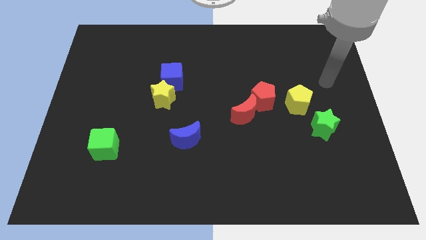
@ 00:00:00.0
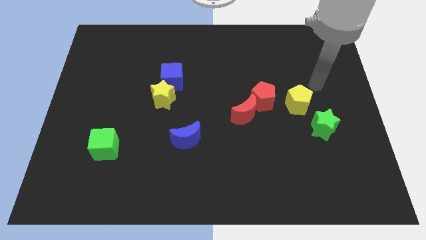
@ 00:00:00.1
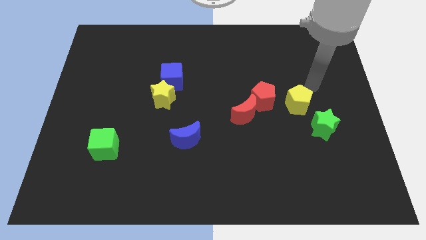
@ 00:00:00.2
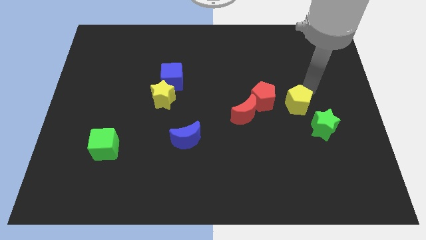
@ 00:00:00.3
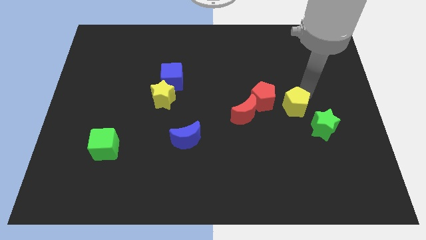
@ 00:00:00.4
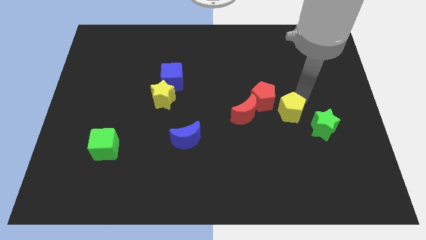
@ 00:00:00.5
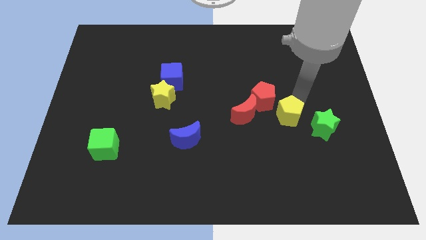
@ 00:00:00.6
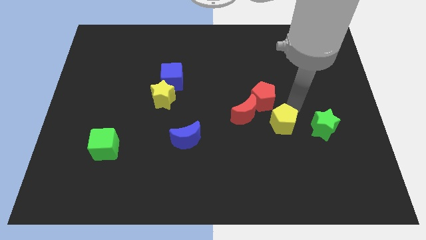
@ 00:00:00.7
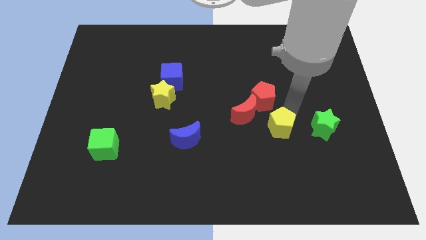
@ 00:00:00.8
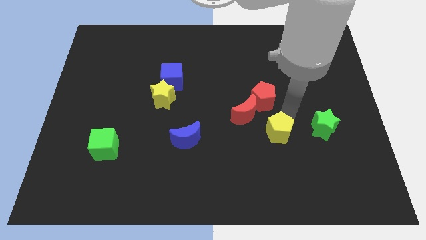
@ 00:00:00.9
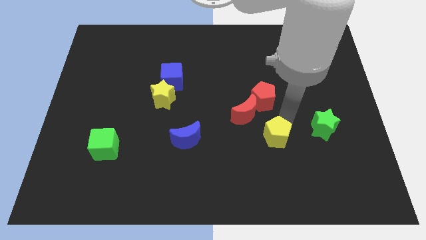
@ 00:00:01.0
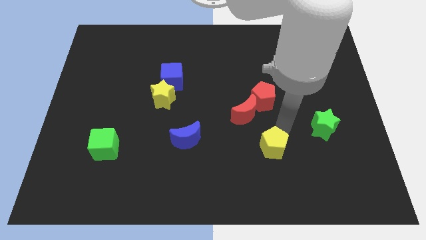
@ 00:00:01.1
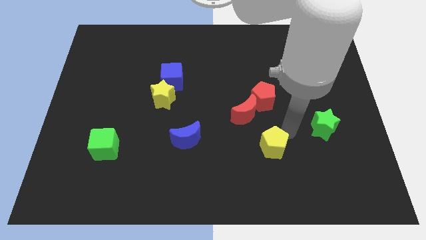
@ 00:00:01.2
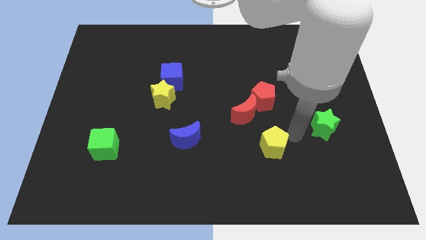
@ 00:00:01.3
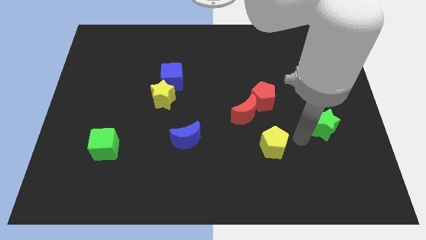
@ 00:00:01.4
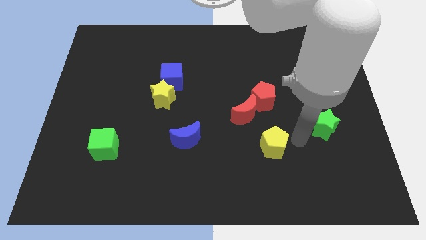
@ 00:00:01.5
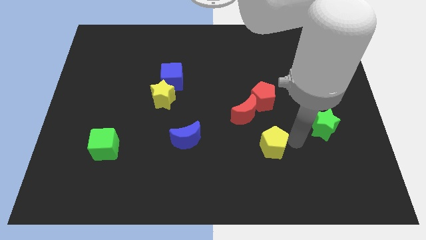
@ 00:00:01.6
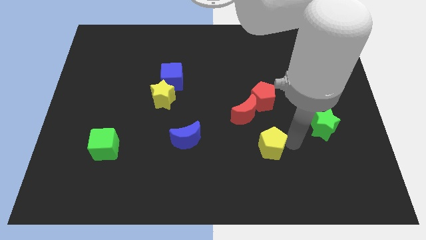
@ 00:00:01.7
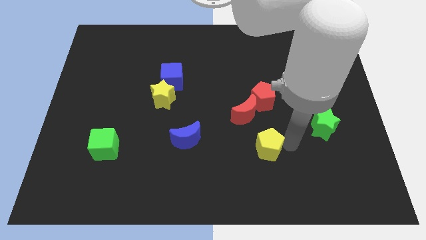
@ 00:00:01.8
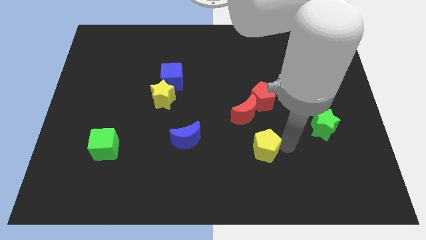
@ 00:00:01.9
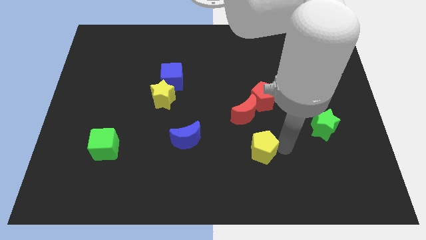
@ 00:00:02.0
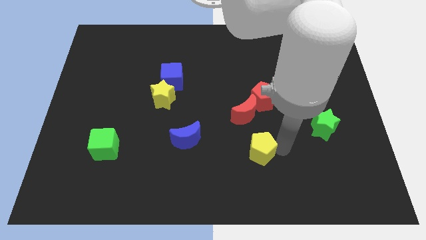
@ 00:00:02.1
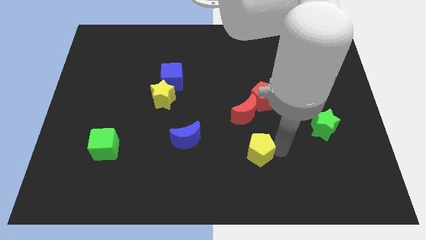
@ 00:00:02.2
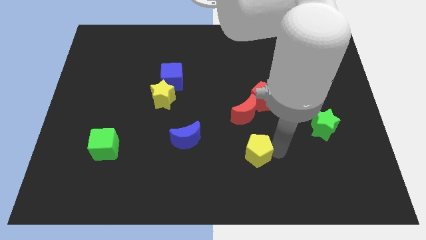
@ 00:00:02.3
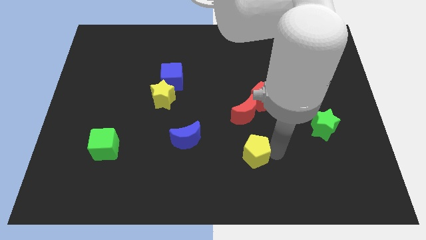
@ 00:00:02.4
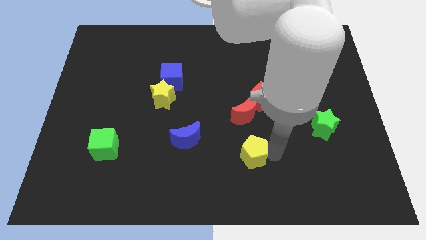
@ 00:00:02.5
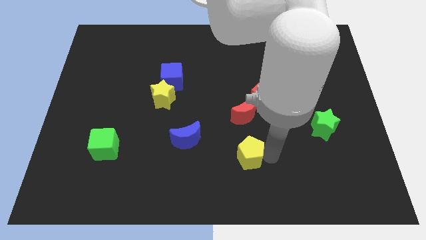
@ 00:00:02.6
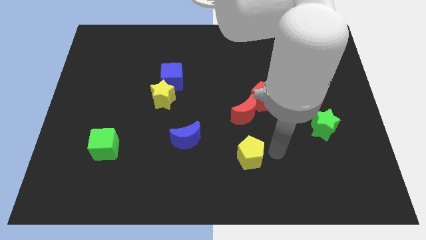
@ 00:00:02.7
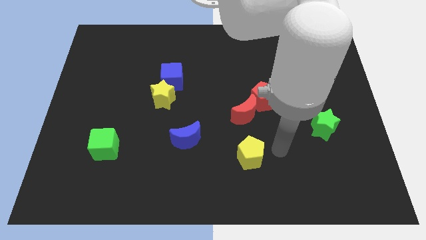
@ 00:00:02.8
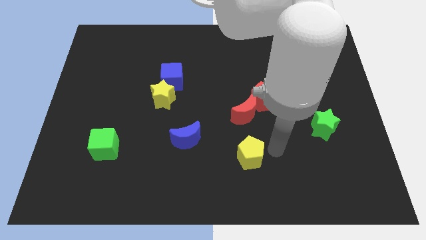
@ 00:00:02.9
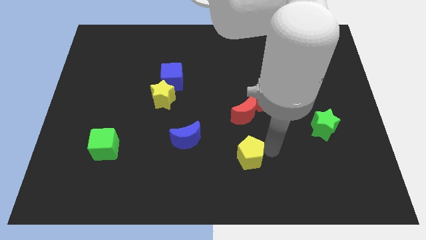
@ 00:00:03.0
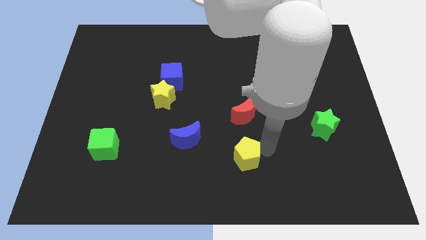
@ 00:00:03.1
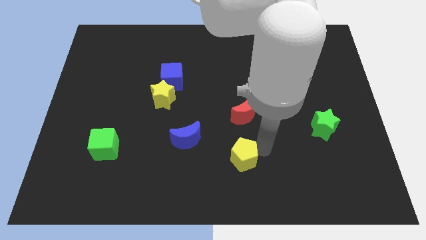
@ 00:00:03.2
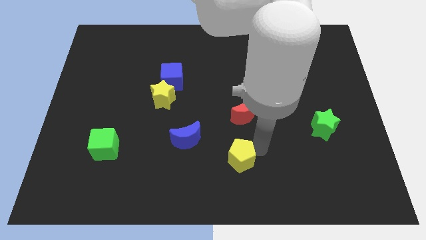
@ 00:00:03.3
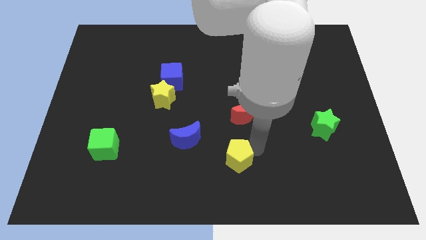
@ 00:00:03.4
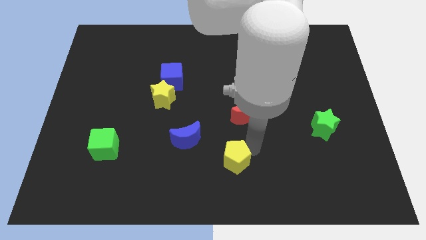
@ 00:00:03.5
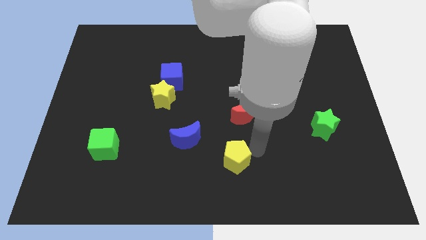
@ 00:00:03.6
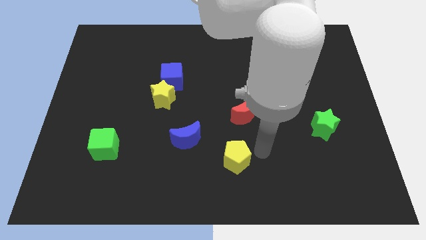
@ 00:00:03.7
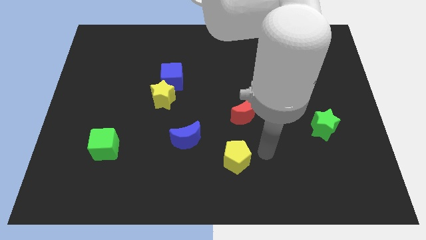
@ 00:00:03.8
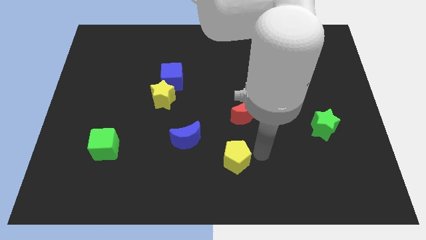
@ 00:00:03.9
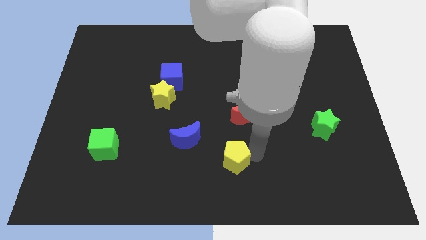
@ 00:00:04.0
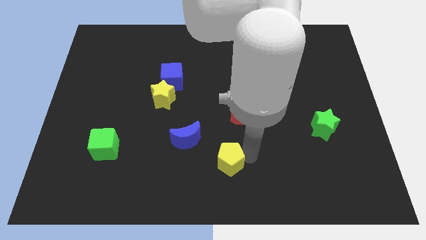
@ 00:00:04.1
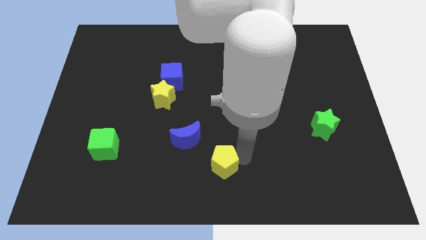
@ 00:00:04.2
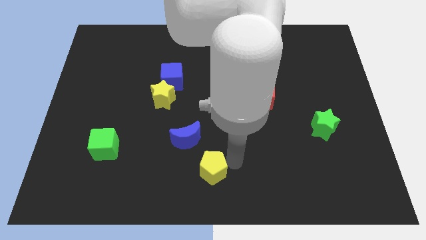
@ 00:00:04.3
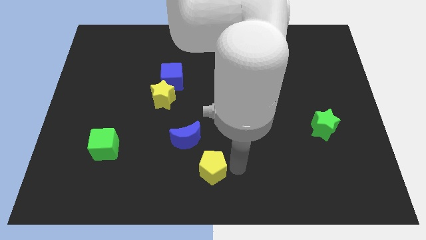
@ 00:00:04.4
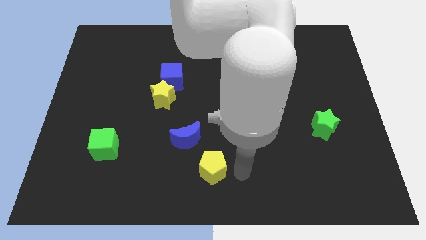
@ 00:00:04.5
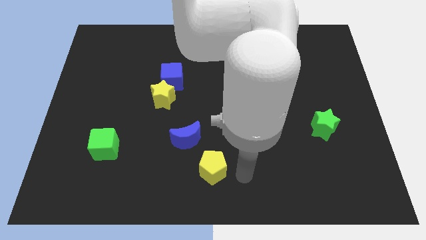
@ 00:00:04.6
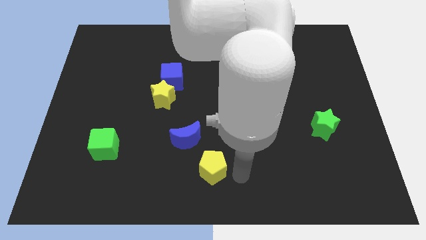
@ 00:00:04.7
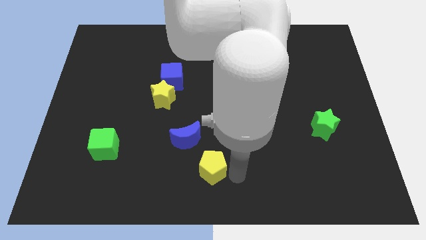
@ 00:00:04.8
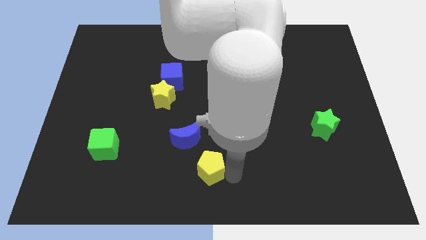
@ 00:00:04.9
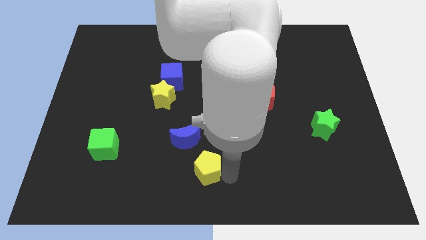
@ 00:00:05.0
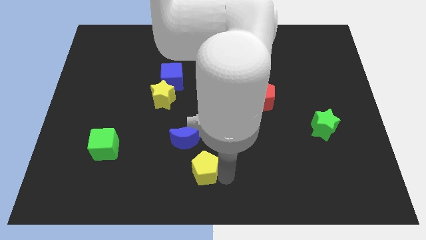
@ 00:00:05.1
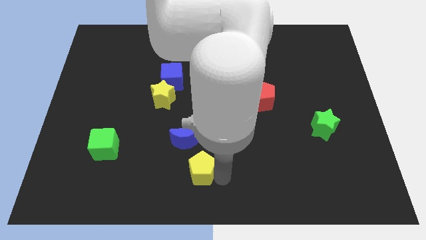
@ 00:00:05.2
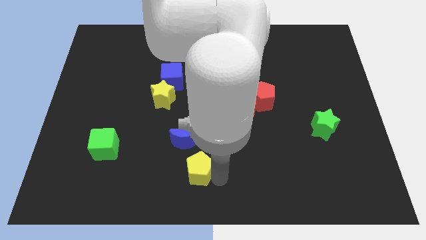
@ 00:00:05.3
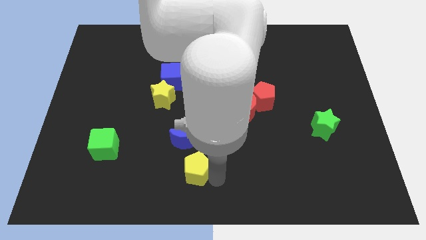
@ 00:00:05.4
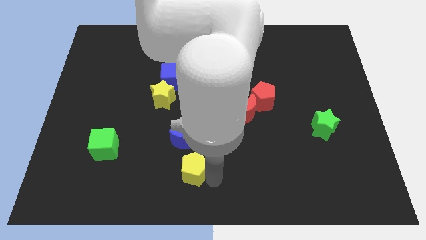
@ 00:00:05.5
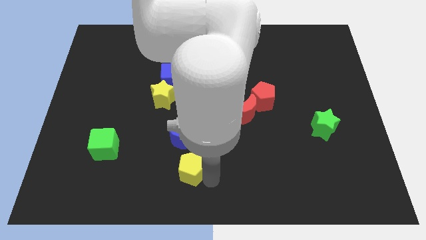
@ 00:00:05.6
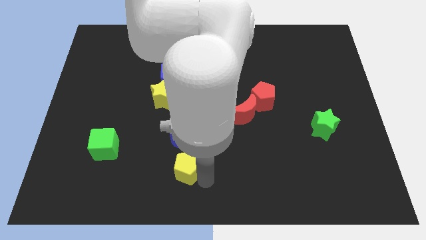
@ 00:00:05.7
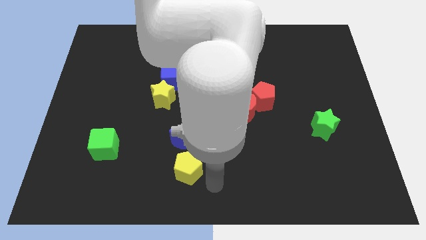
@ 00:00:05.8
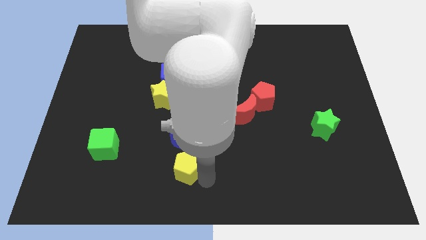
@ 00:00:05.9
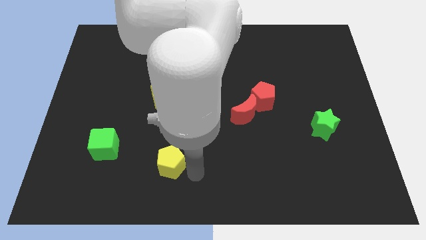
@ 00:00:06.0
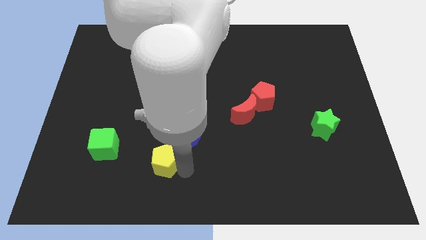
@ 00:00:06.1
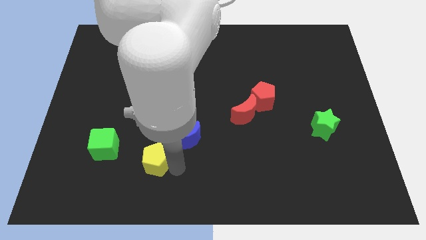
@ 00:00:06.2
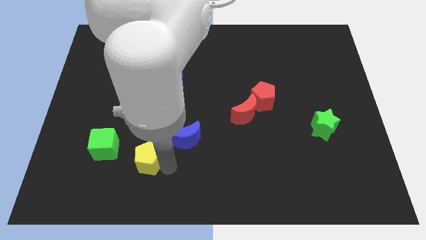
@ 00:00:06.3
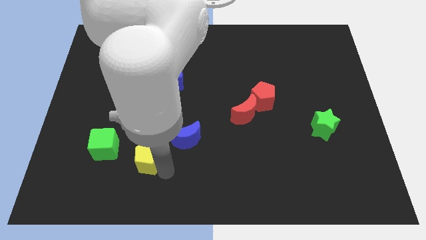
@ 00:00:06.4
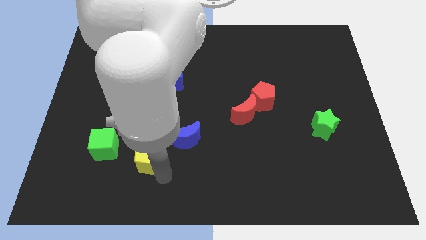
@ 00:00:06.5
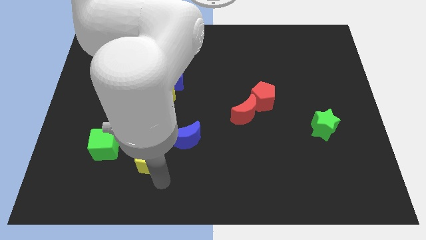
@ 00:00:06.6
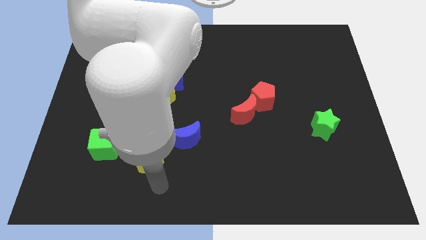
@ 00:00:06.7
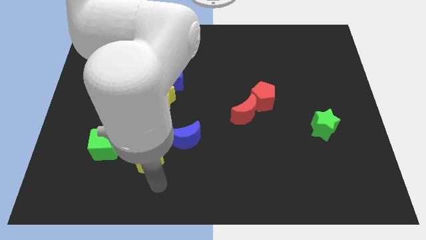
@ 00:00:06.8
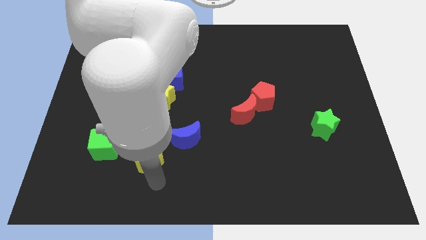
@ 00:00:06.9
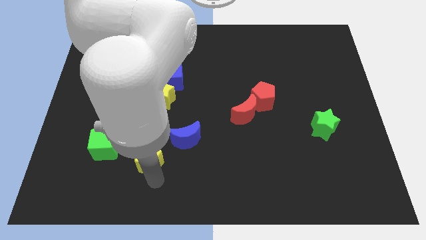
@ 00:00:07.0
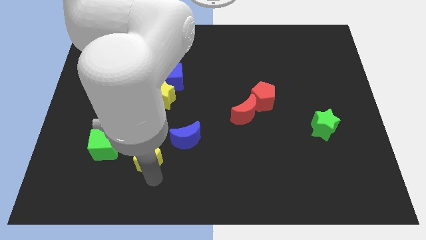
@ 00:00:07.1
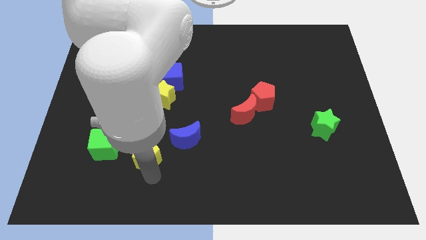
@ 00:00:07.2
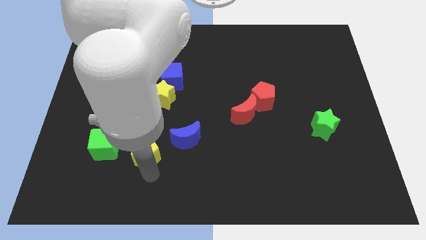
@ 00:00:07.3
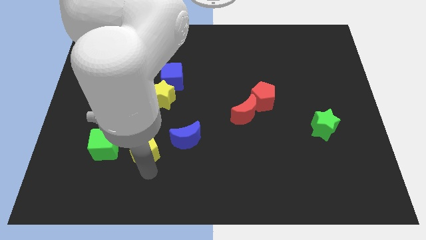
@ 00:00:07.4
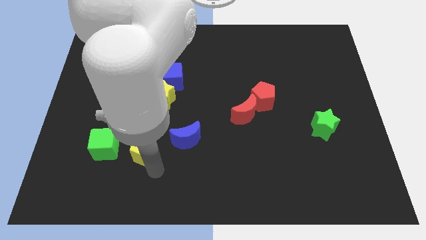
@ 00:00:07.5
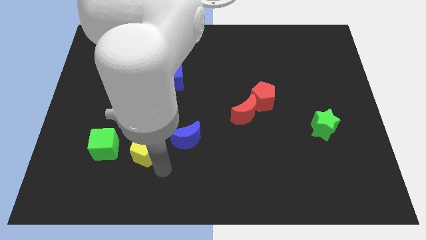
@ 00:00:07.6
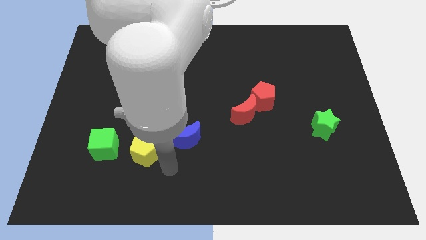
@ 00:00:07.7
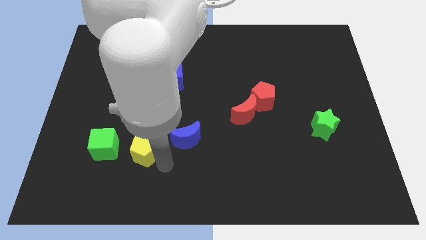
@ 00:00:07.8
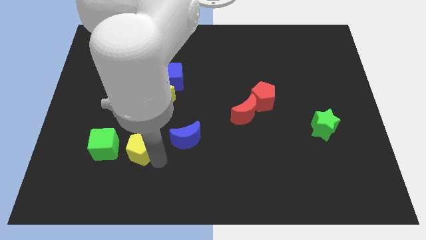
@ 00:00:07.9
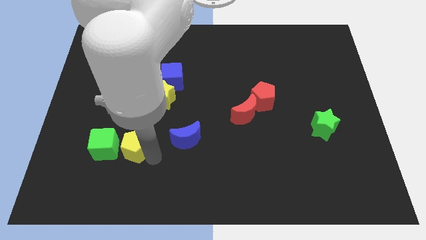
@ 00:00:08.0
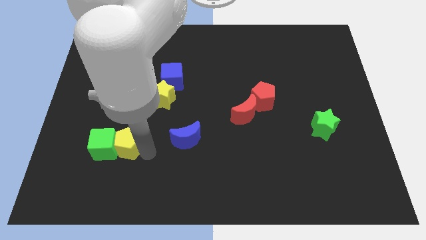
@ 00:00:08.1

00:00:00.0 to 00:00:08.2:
push the yellow pentagon next to the green cube
